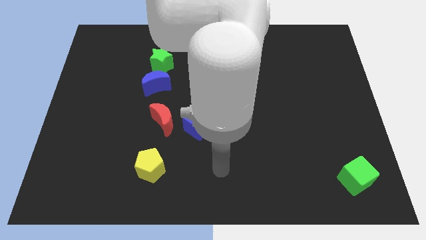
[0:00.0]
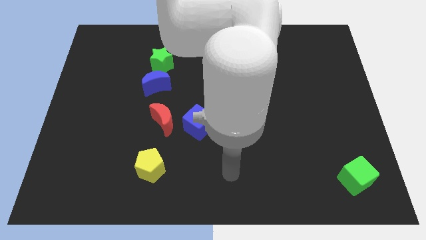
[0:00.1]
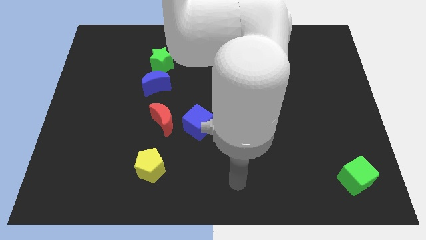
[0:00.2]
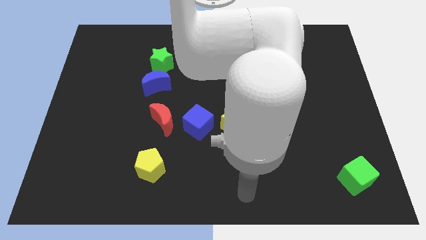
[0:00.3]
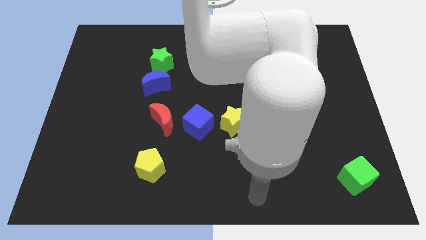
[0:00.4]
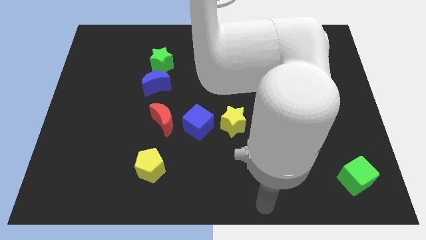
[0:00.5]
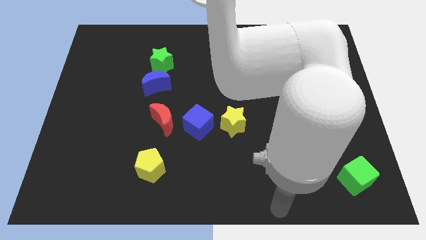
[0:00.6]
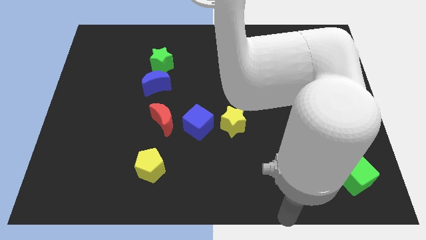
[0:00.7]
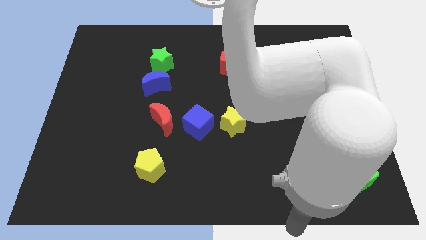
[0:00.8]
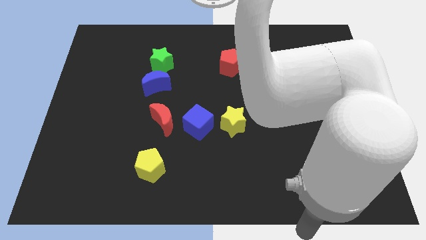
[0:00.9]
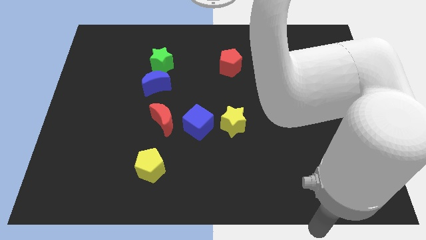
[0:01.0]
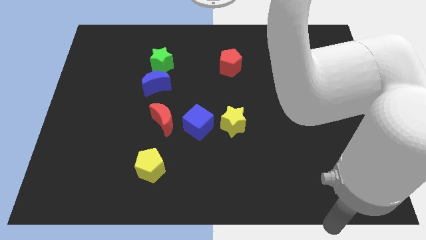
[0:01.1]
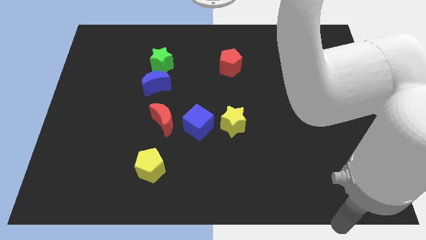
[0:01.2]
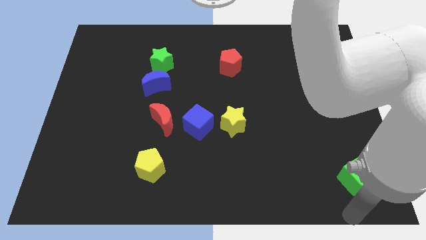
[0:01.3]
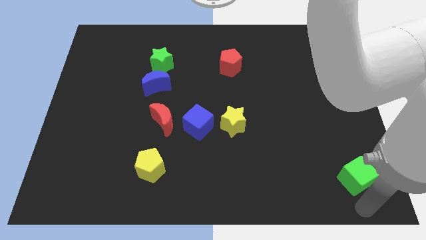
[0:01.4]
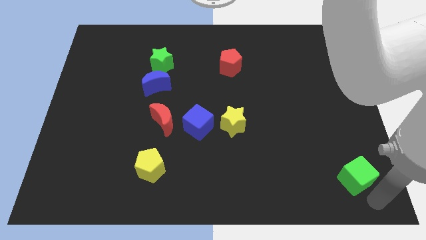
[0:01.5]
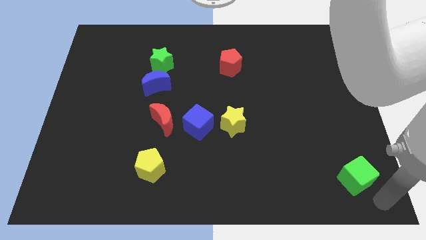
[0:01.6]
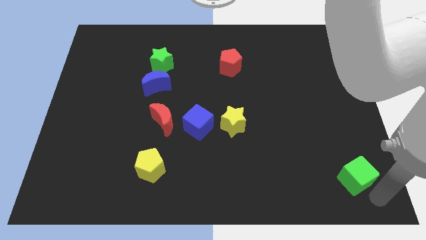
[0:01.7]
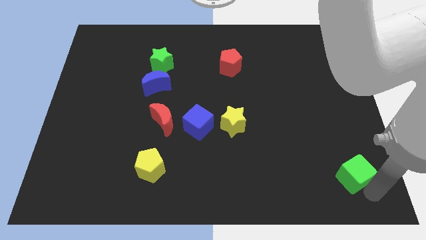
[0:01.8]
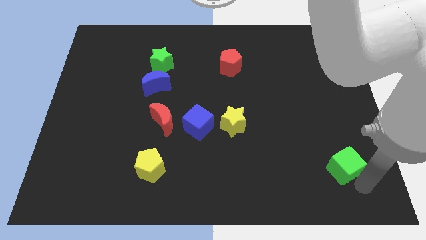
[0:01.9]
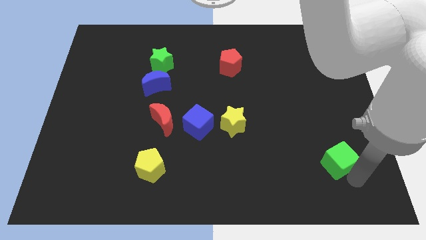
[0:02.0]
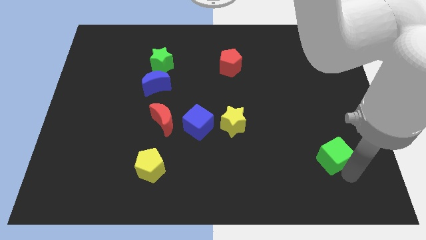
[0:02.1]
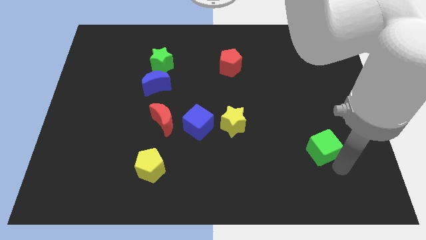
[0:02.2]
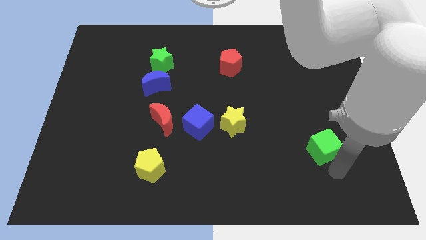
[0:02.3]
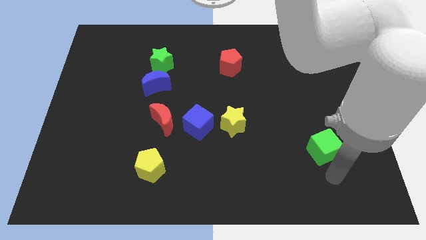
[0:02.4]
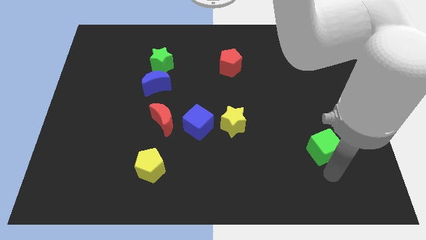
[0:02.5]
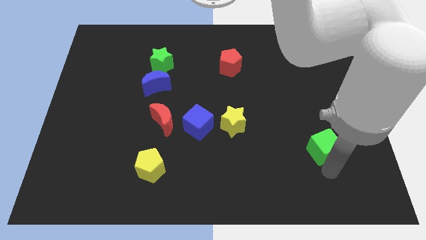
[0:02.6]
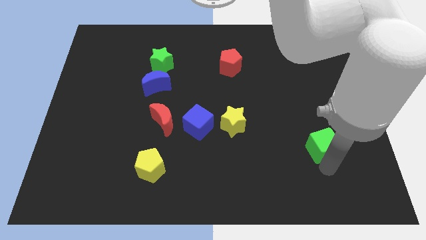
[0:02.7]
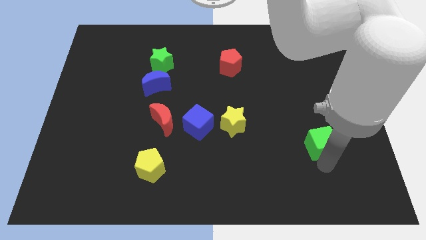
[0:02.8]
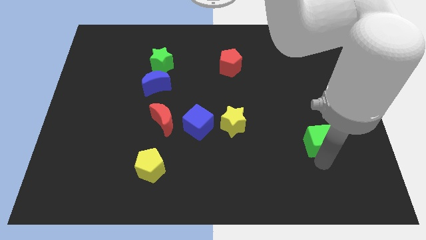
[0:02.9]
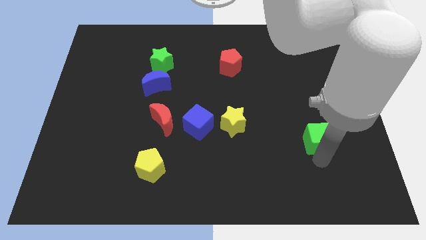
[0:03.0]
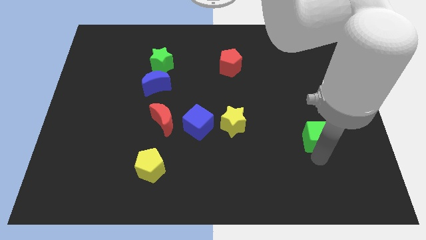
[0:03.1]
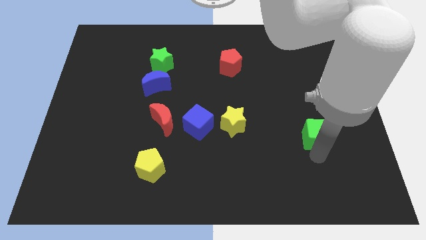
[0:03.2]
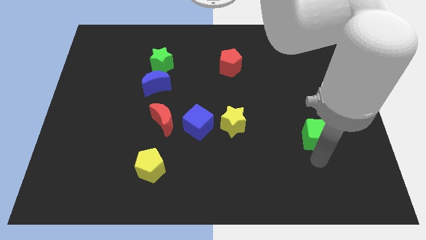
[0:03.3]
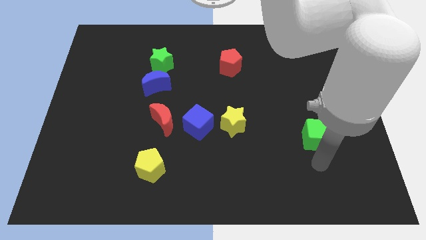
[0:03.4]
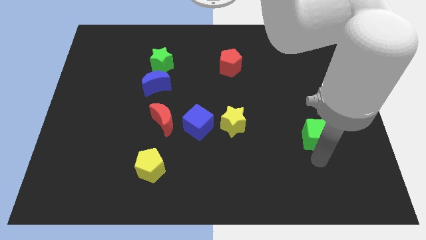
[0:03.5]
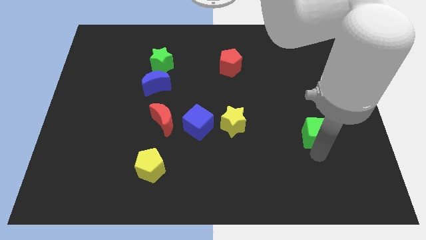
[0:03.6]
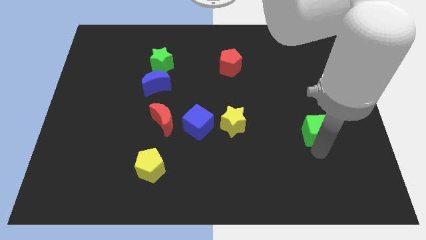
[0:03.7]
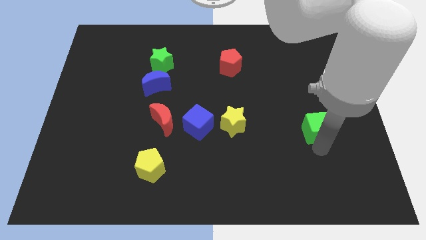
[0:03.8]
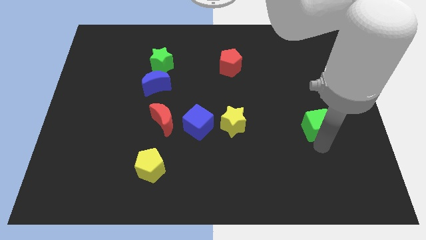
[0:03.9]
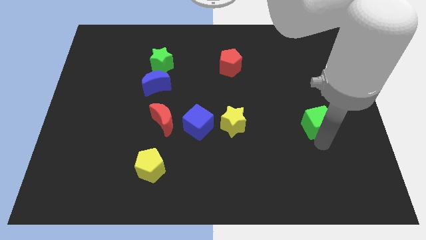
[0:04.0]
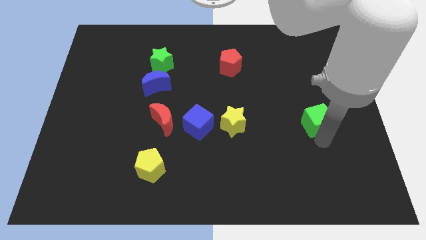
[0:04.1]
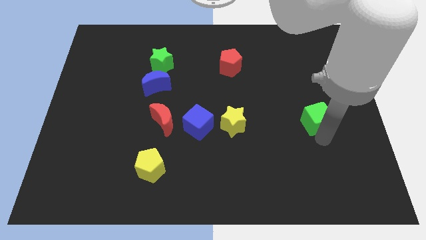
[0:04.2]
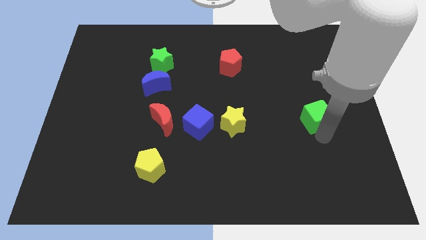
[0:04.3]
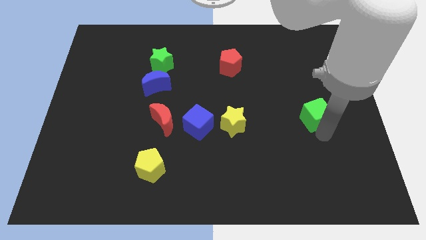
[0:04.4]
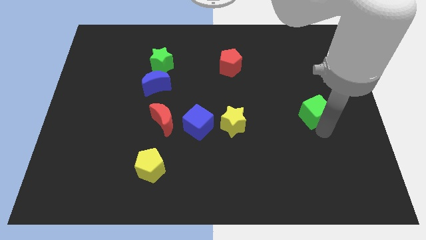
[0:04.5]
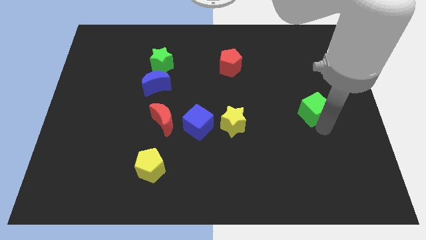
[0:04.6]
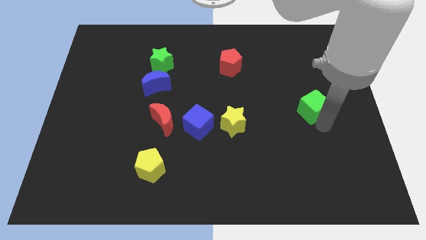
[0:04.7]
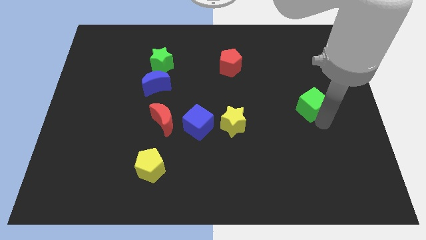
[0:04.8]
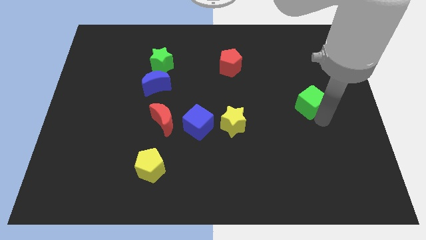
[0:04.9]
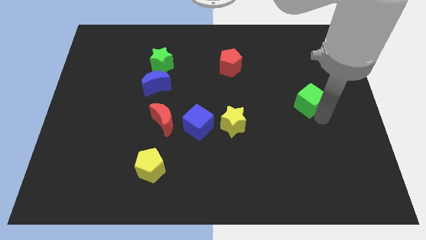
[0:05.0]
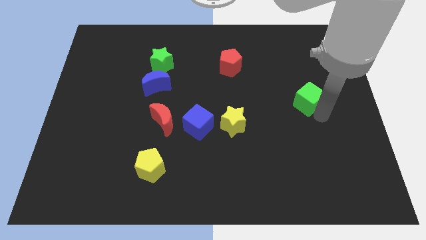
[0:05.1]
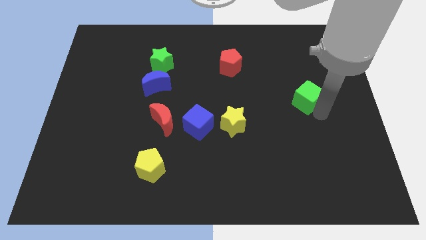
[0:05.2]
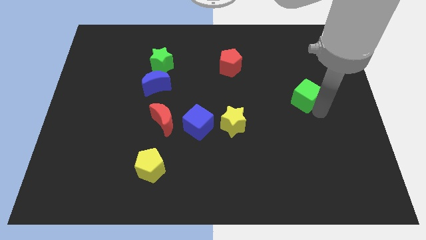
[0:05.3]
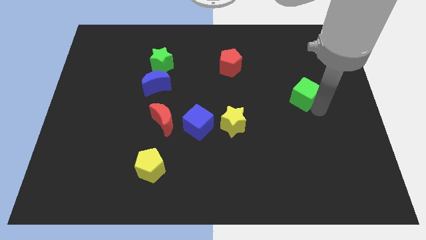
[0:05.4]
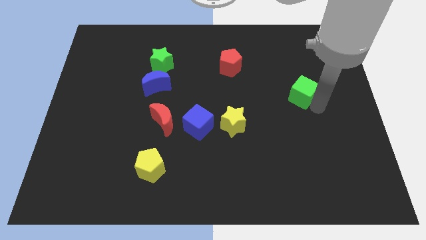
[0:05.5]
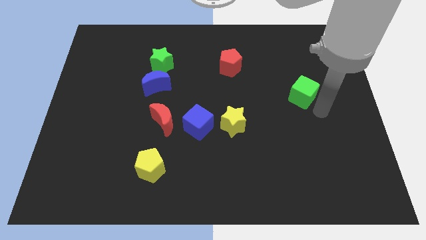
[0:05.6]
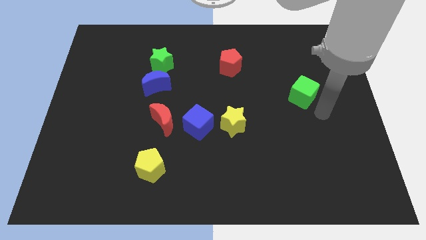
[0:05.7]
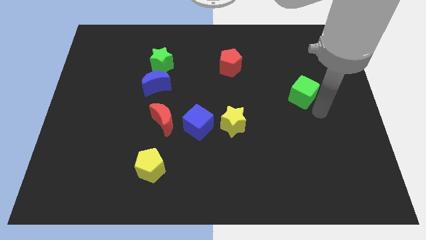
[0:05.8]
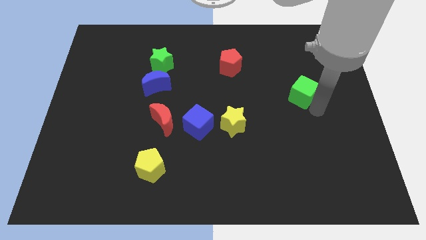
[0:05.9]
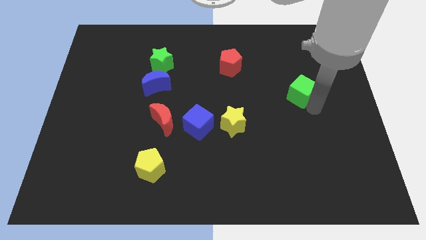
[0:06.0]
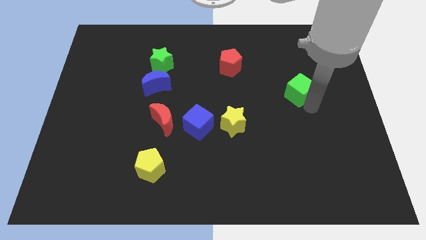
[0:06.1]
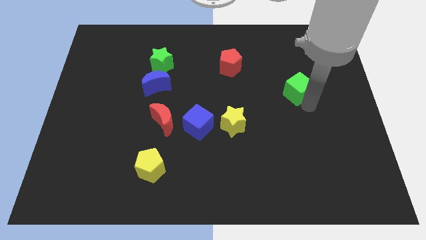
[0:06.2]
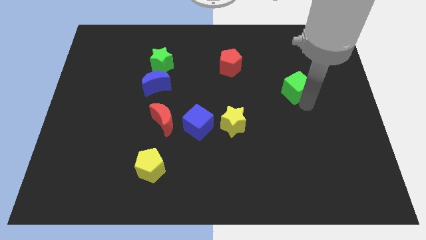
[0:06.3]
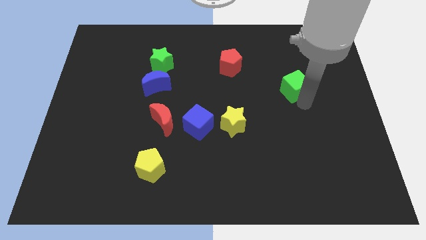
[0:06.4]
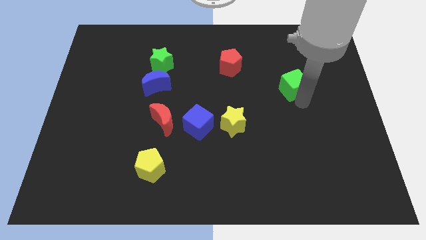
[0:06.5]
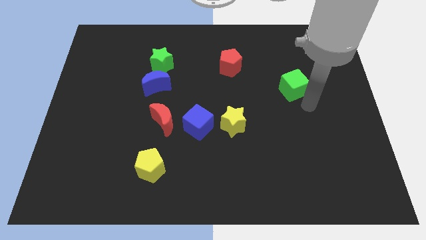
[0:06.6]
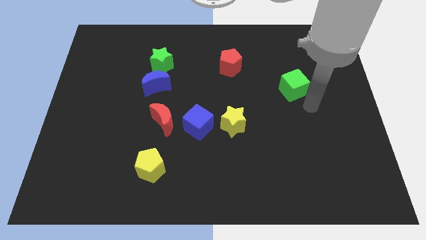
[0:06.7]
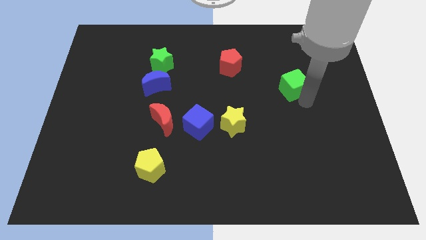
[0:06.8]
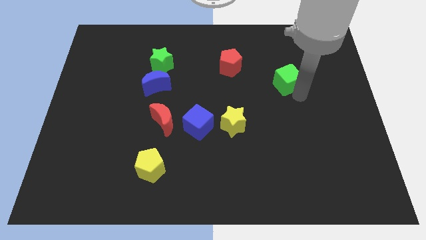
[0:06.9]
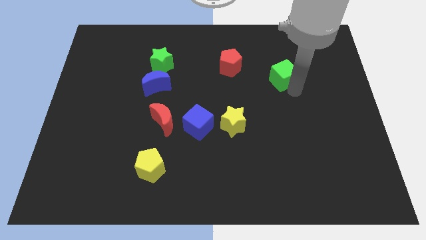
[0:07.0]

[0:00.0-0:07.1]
slide the green cube right of the red pentagon
